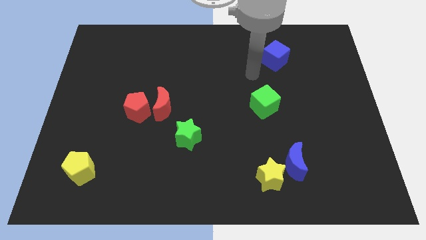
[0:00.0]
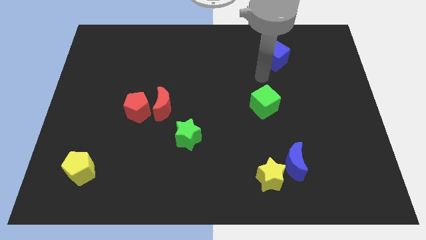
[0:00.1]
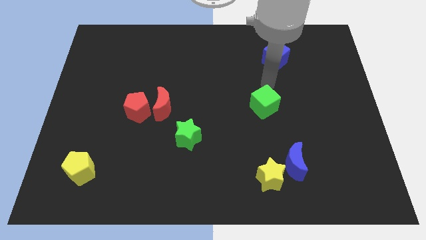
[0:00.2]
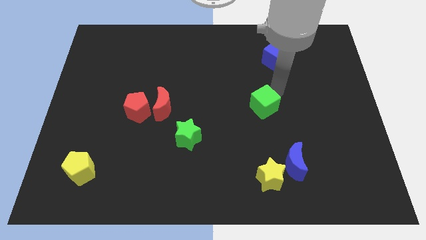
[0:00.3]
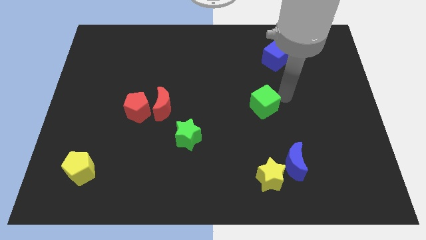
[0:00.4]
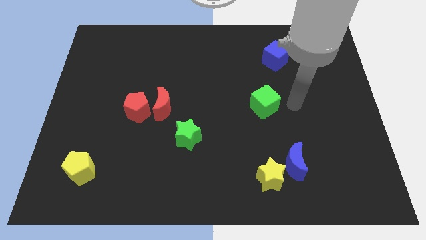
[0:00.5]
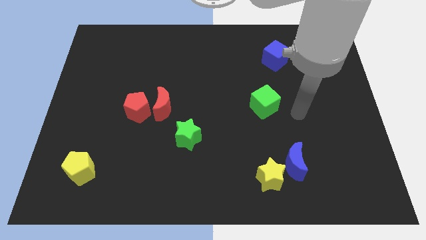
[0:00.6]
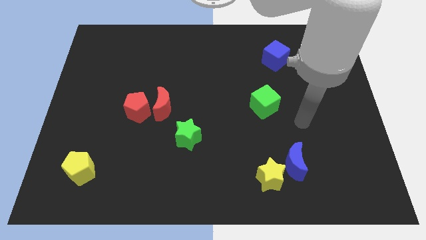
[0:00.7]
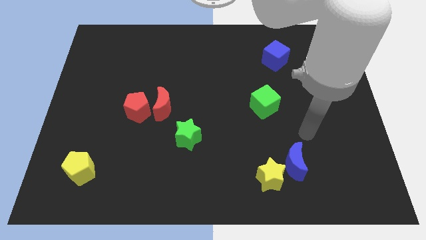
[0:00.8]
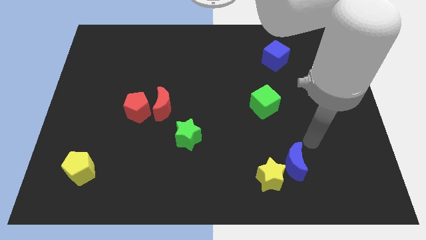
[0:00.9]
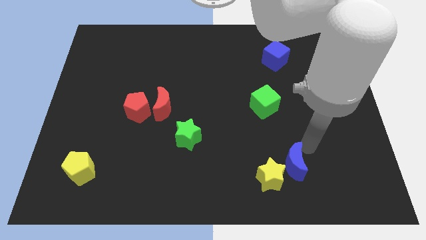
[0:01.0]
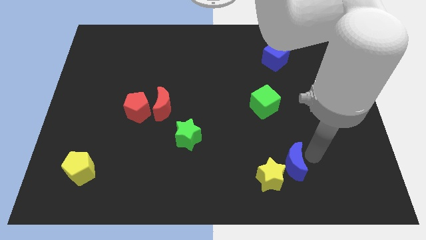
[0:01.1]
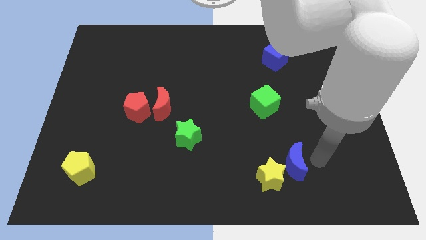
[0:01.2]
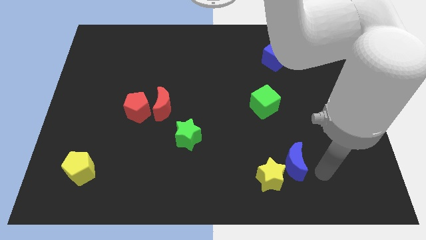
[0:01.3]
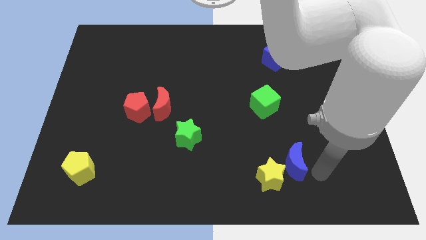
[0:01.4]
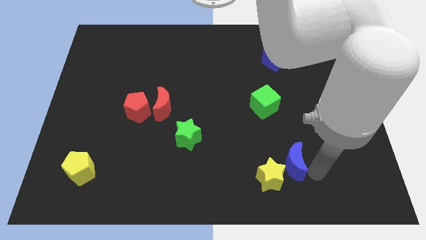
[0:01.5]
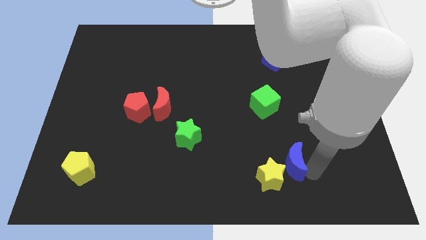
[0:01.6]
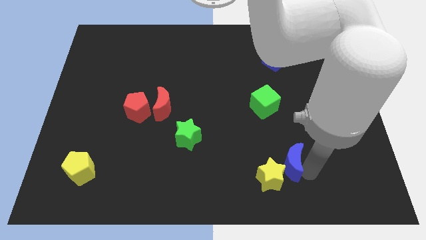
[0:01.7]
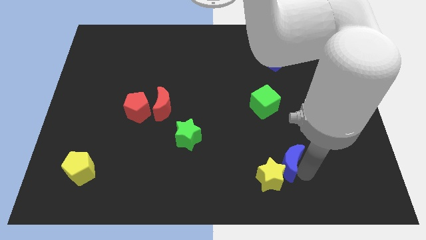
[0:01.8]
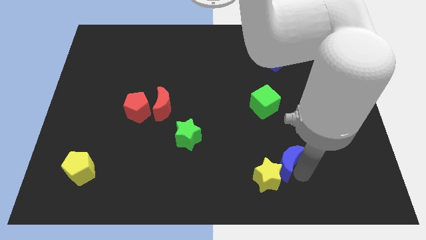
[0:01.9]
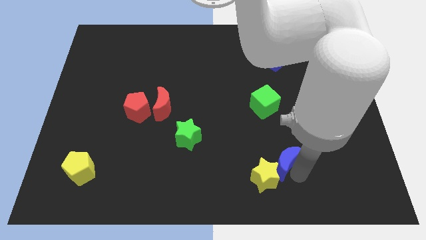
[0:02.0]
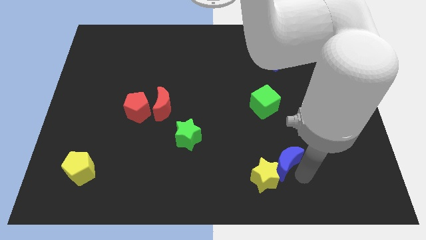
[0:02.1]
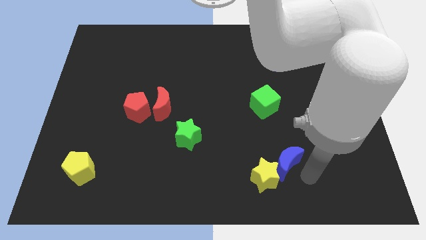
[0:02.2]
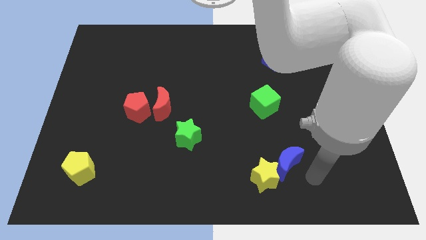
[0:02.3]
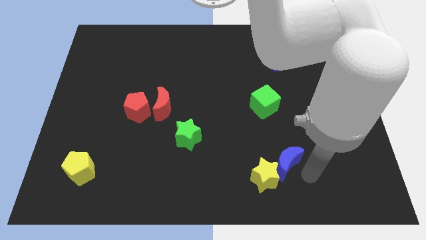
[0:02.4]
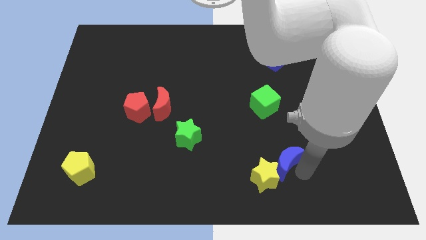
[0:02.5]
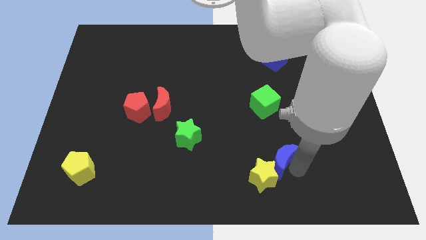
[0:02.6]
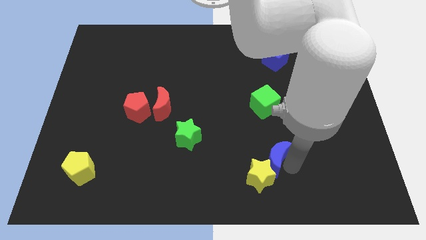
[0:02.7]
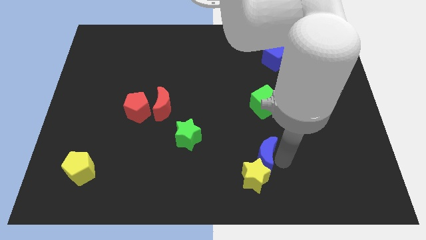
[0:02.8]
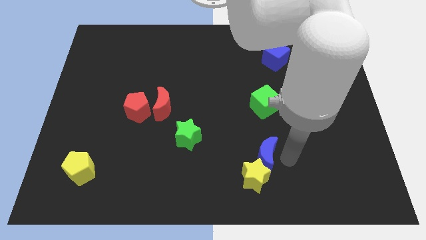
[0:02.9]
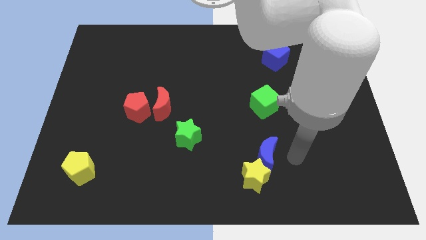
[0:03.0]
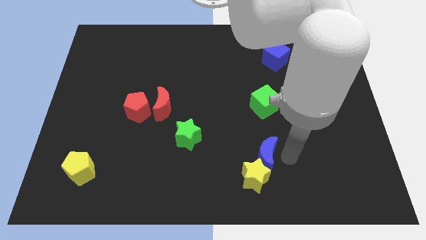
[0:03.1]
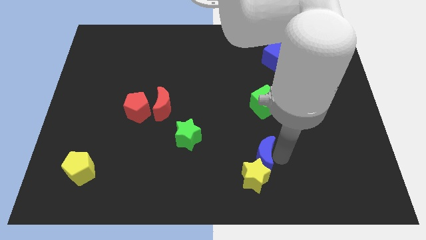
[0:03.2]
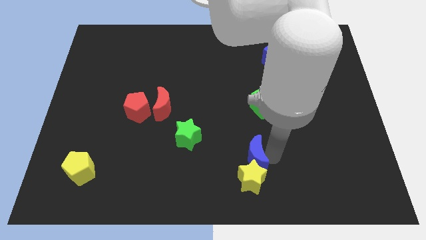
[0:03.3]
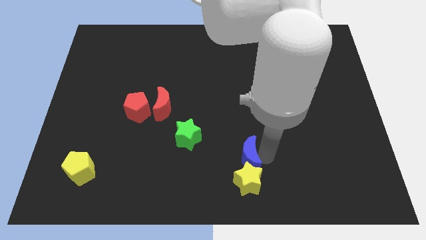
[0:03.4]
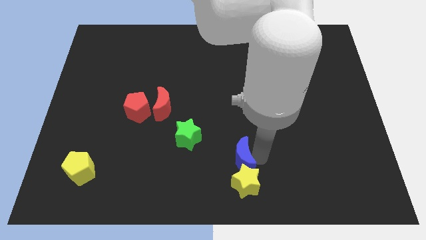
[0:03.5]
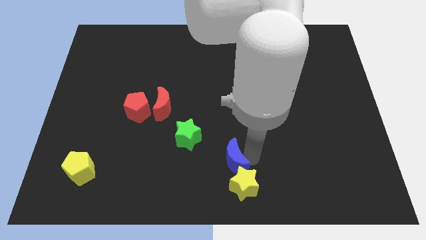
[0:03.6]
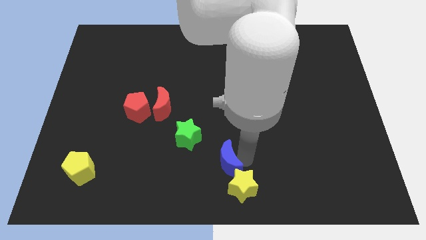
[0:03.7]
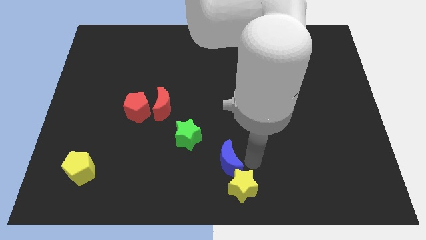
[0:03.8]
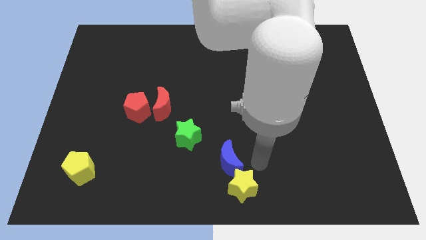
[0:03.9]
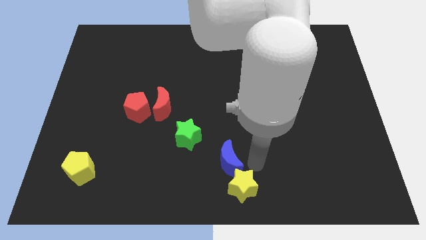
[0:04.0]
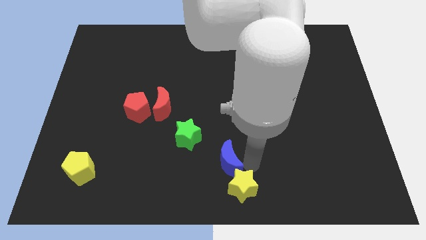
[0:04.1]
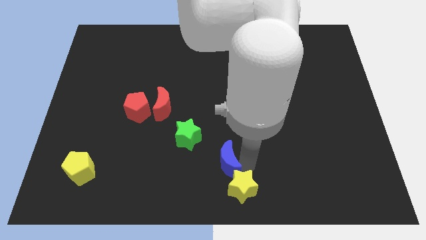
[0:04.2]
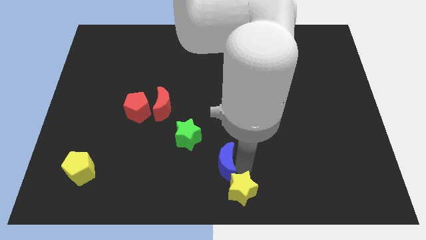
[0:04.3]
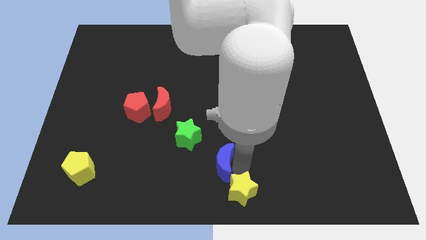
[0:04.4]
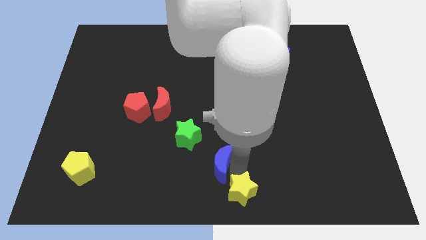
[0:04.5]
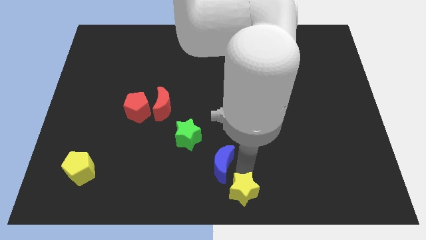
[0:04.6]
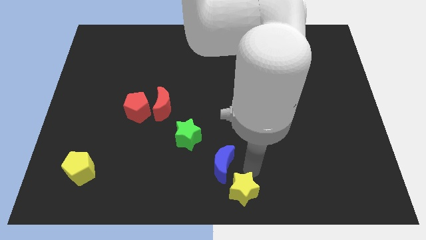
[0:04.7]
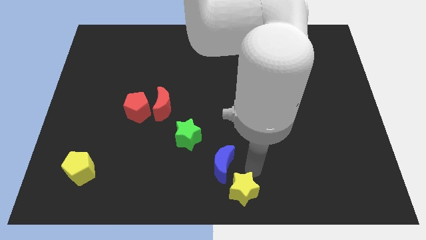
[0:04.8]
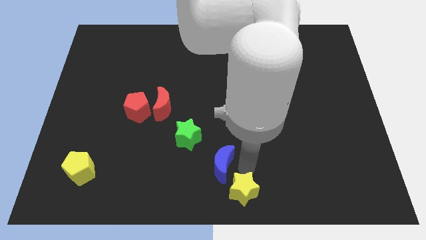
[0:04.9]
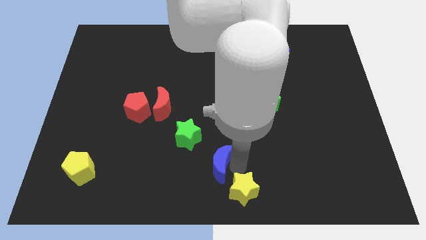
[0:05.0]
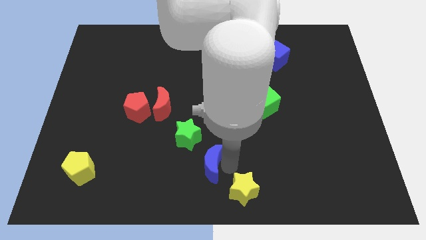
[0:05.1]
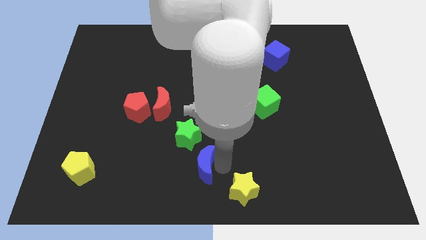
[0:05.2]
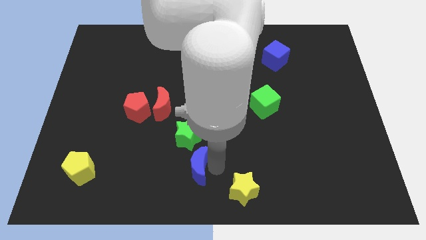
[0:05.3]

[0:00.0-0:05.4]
slide the blue moon to the left

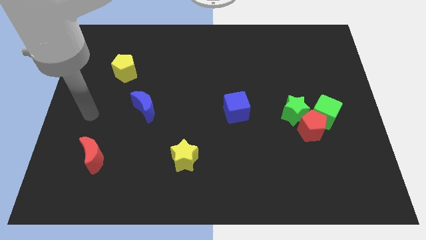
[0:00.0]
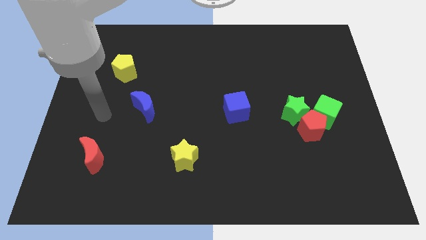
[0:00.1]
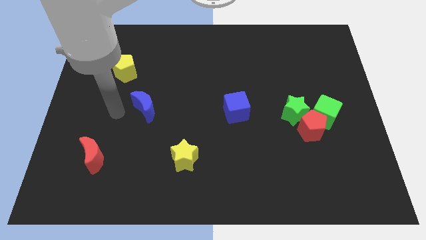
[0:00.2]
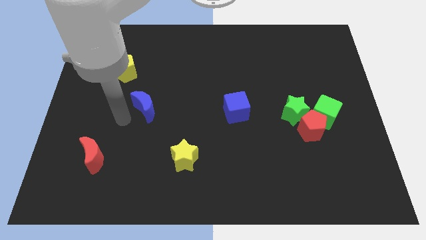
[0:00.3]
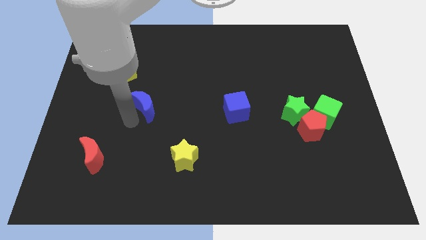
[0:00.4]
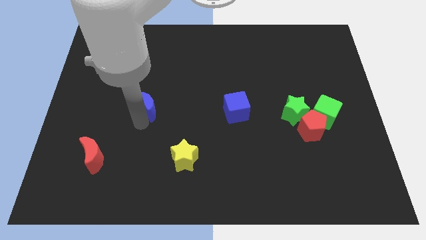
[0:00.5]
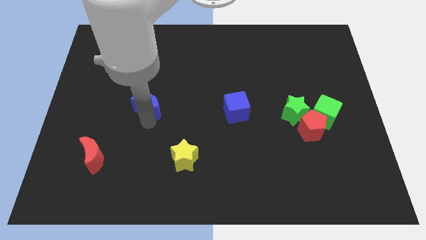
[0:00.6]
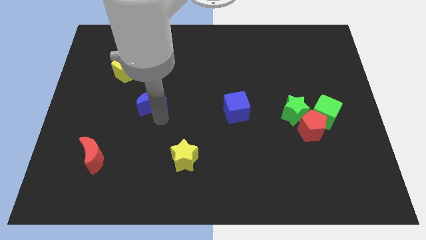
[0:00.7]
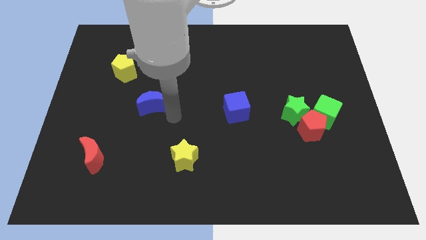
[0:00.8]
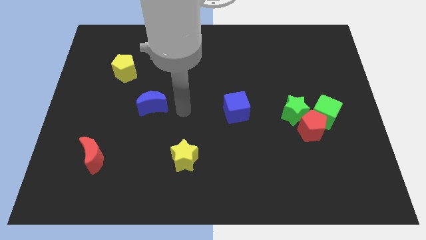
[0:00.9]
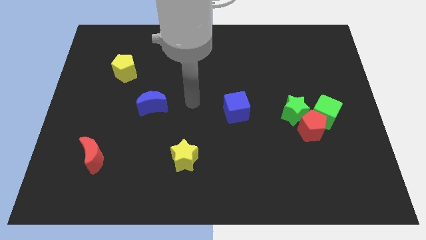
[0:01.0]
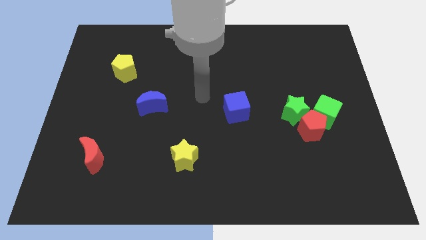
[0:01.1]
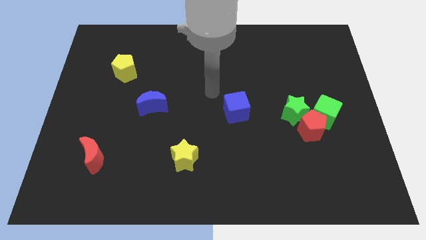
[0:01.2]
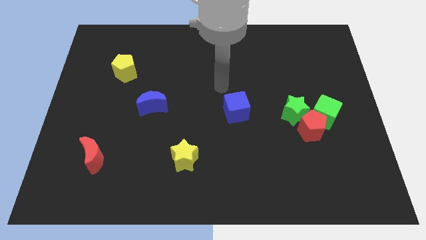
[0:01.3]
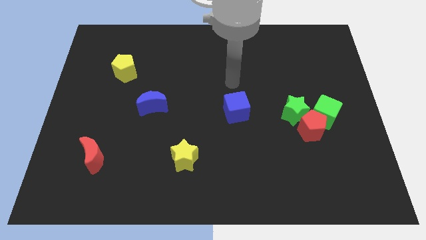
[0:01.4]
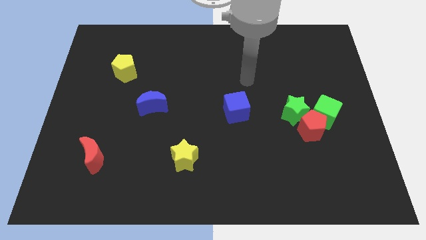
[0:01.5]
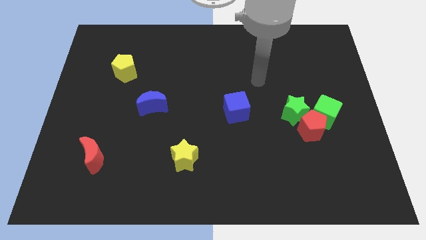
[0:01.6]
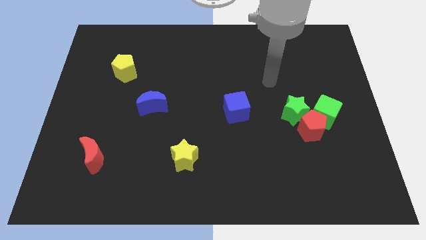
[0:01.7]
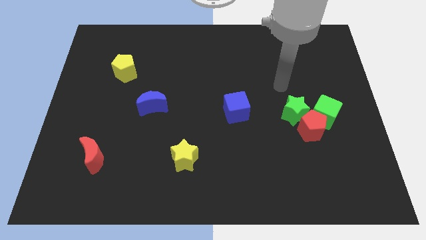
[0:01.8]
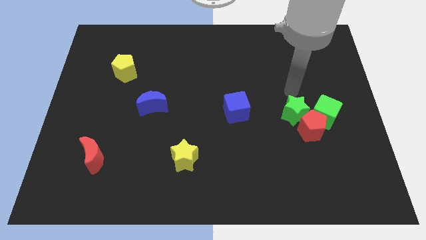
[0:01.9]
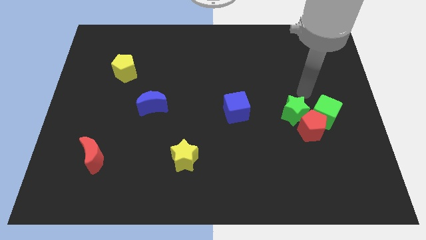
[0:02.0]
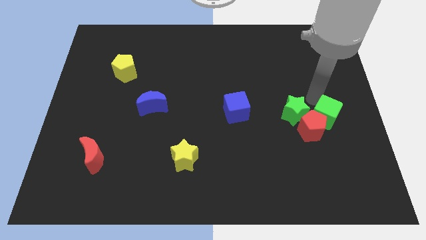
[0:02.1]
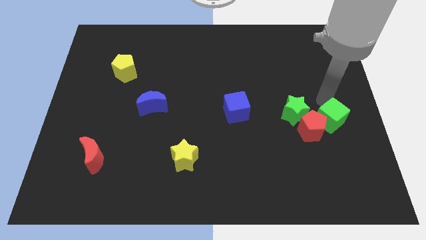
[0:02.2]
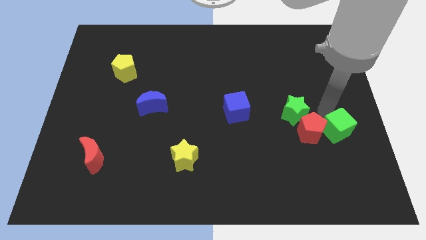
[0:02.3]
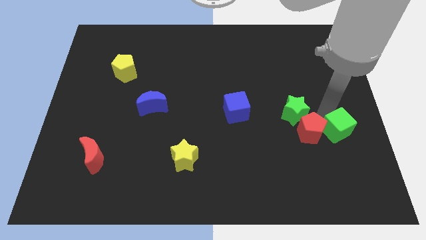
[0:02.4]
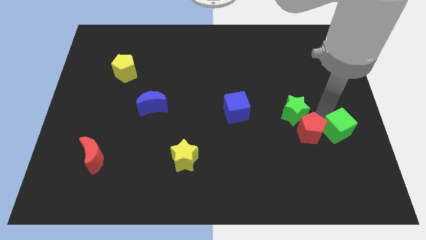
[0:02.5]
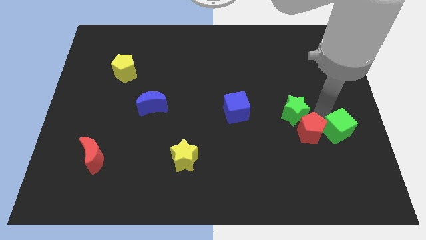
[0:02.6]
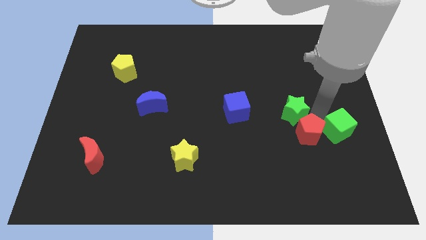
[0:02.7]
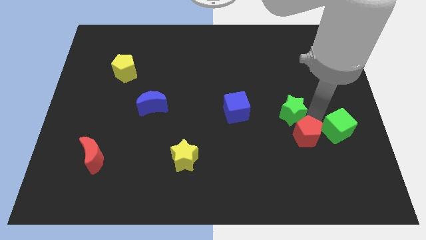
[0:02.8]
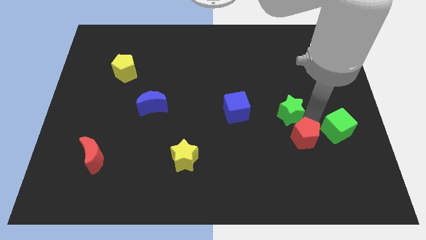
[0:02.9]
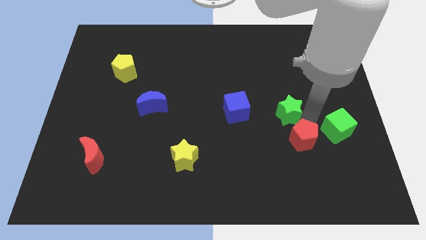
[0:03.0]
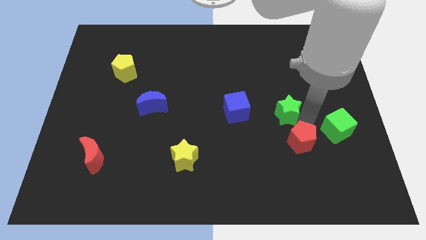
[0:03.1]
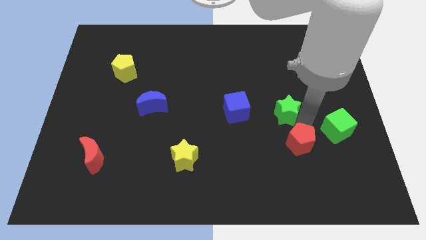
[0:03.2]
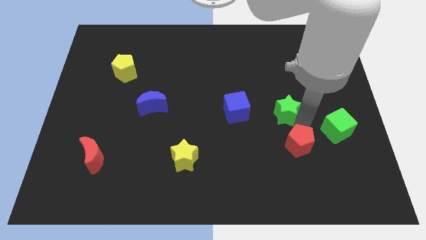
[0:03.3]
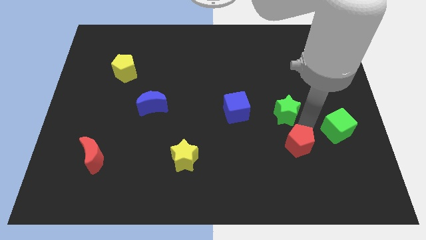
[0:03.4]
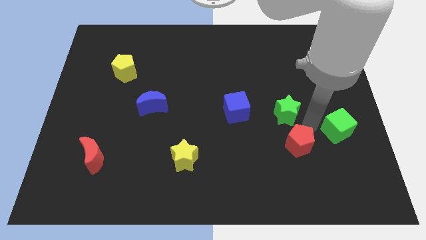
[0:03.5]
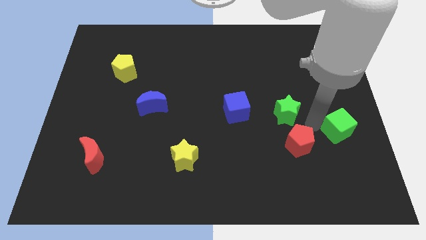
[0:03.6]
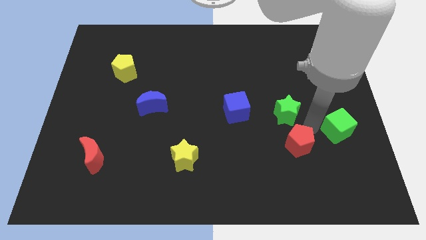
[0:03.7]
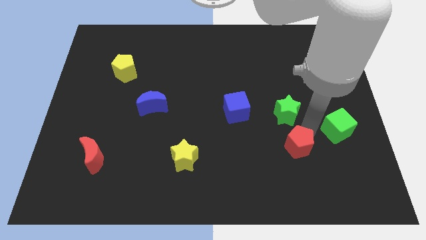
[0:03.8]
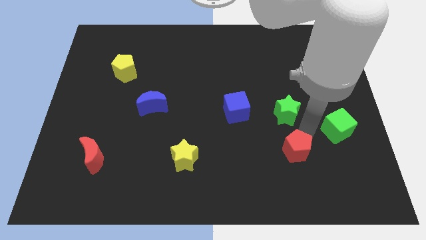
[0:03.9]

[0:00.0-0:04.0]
slightly push the red pentagon down and then left
